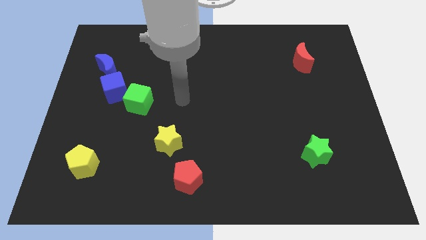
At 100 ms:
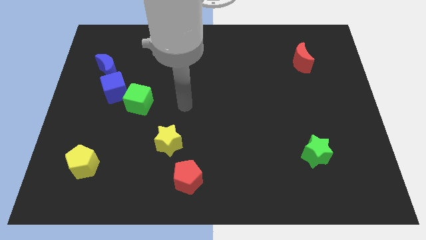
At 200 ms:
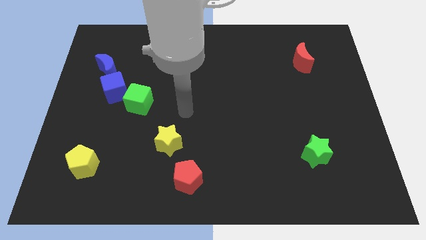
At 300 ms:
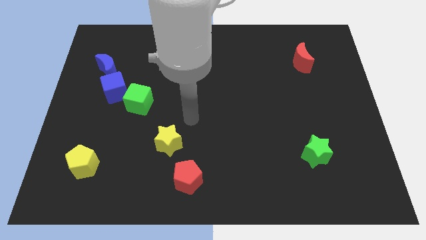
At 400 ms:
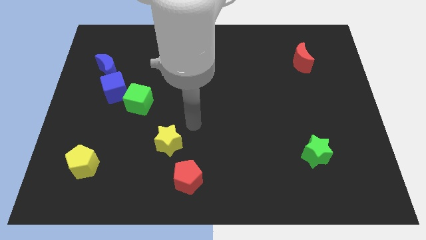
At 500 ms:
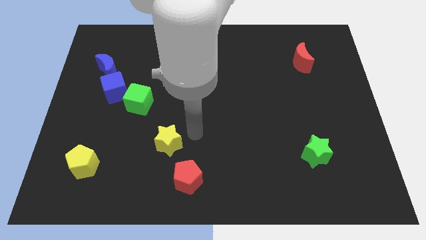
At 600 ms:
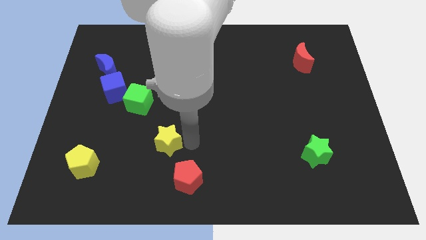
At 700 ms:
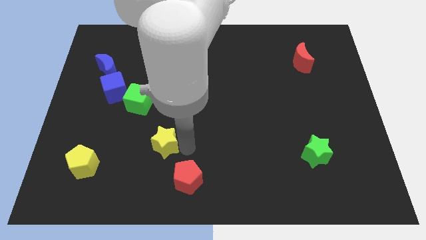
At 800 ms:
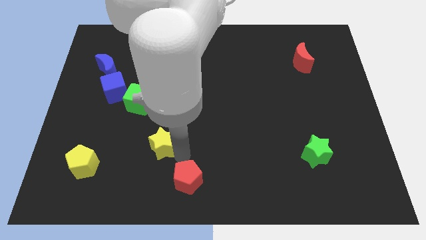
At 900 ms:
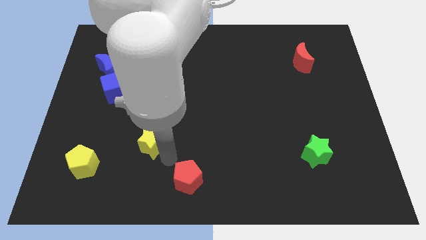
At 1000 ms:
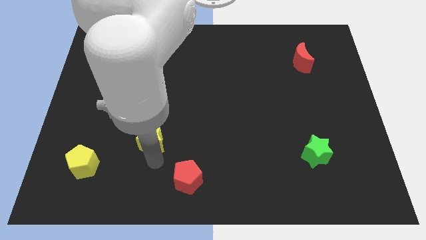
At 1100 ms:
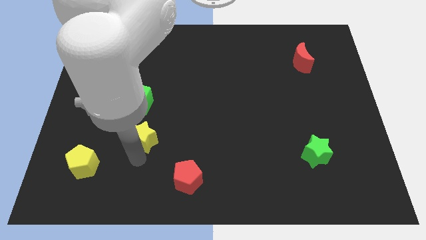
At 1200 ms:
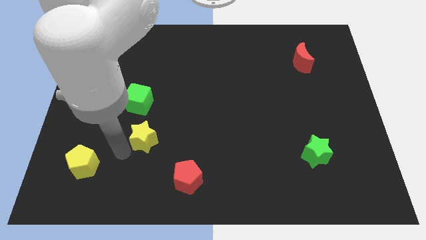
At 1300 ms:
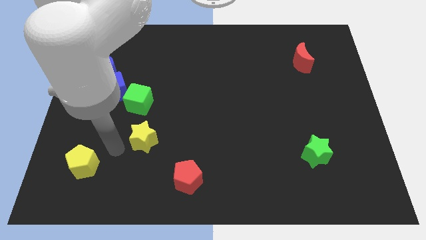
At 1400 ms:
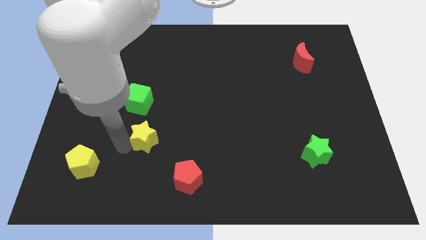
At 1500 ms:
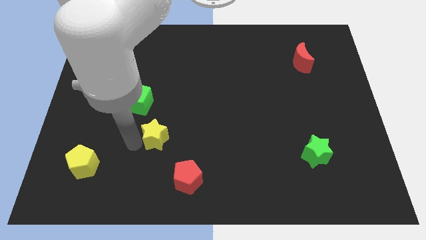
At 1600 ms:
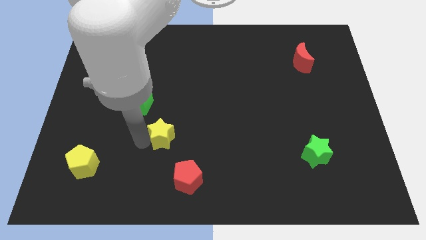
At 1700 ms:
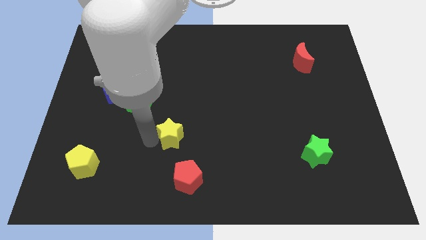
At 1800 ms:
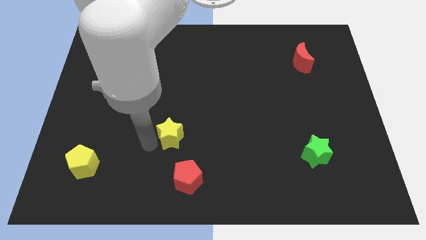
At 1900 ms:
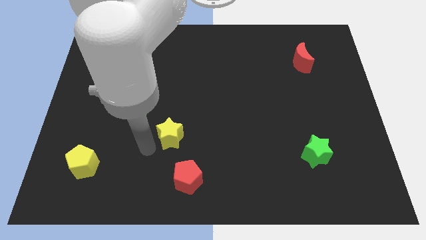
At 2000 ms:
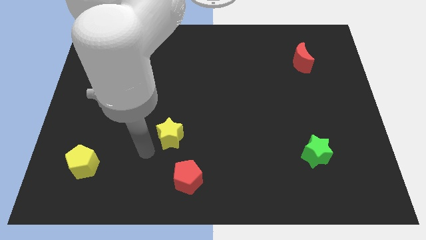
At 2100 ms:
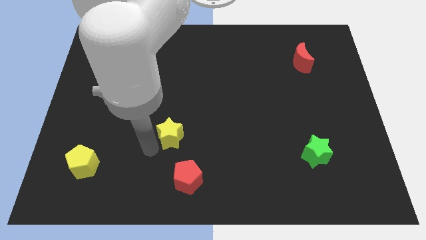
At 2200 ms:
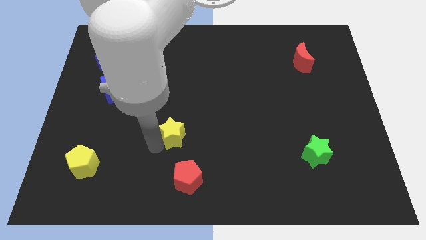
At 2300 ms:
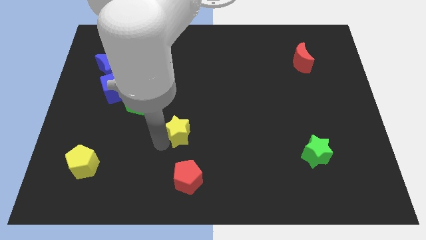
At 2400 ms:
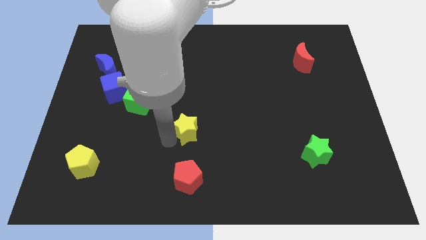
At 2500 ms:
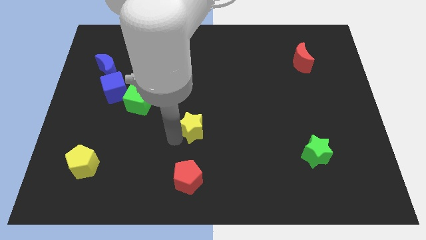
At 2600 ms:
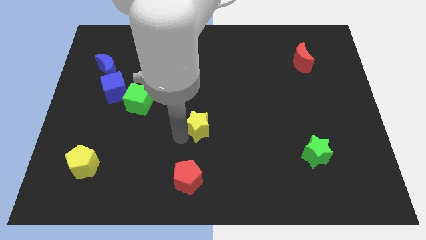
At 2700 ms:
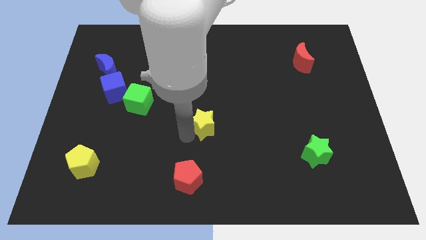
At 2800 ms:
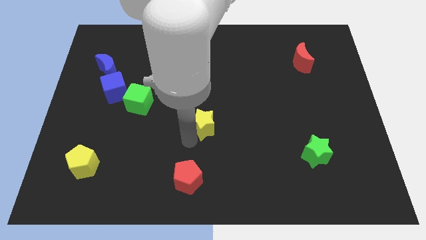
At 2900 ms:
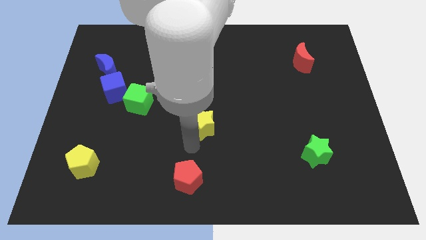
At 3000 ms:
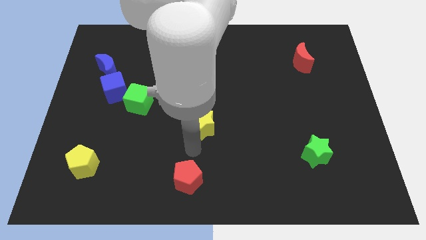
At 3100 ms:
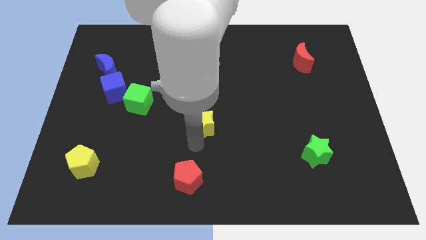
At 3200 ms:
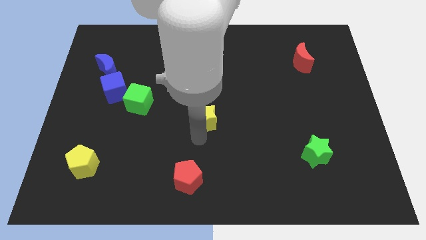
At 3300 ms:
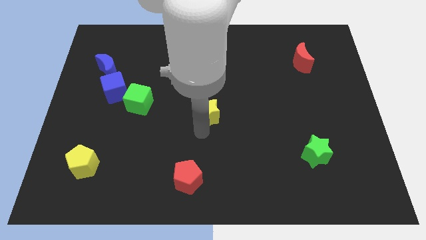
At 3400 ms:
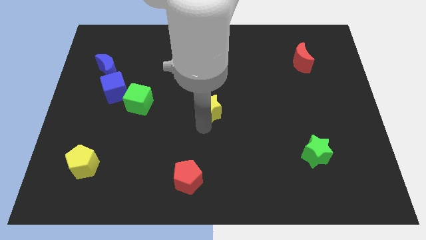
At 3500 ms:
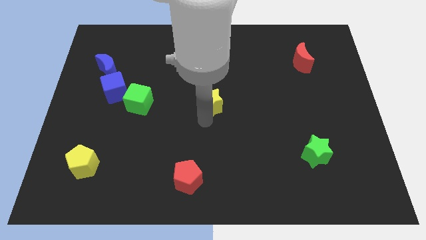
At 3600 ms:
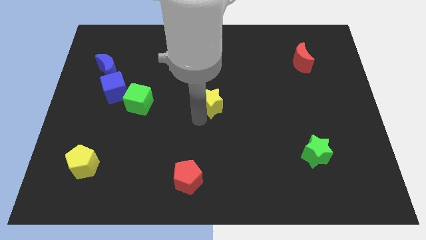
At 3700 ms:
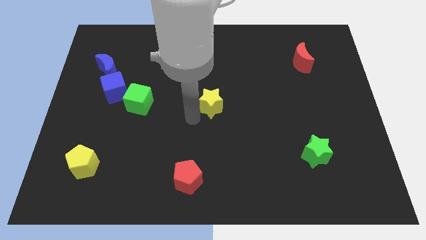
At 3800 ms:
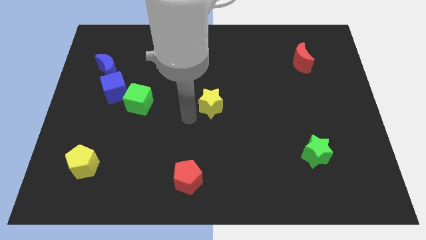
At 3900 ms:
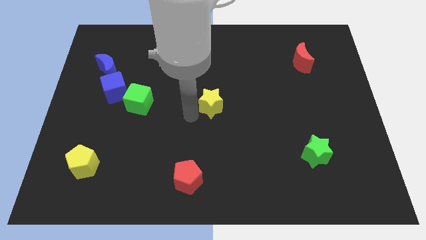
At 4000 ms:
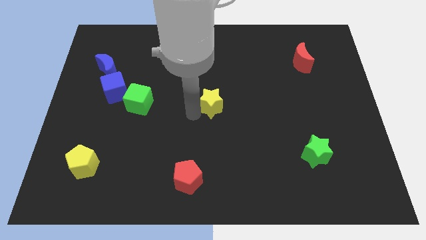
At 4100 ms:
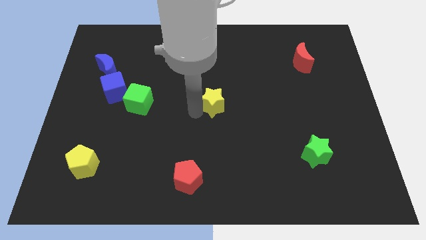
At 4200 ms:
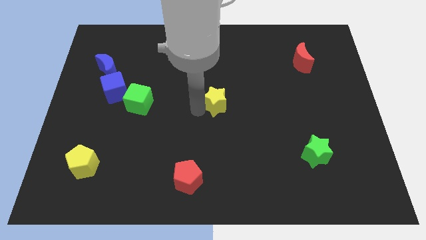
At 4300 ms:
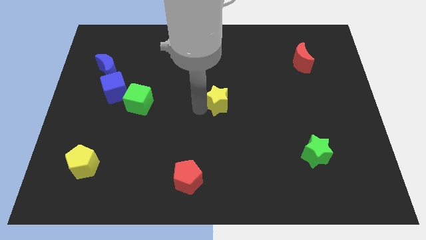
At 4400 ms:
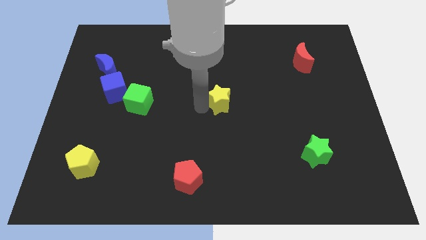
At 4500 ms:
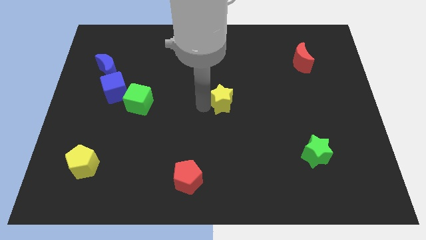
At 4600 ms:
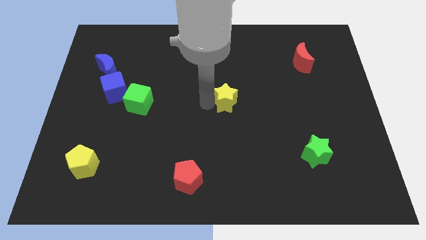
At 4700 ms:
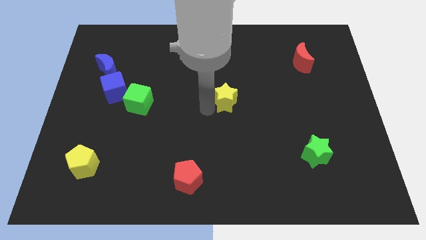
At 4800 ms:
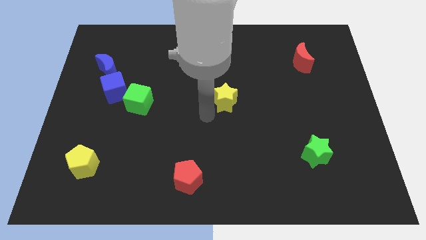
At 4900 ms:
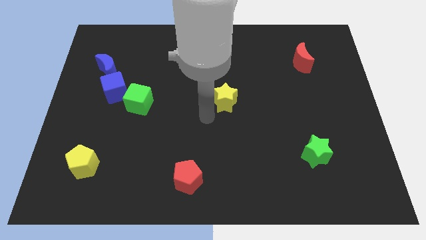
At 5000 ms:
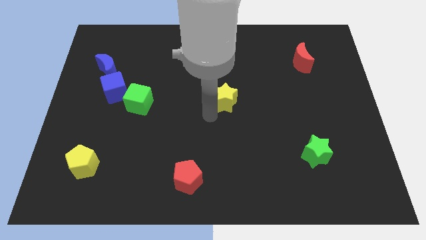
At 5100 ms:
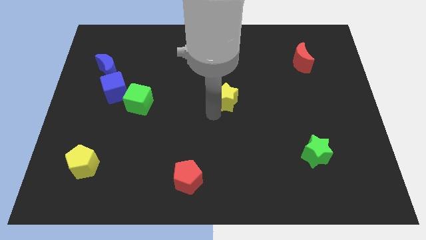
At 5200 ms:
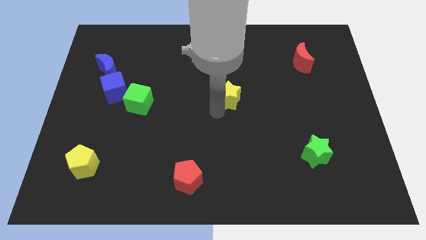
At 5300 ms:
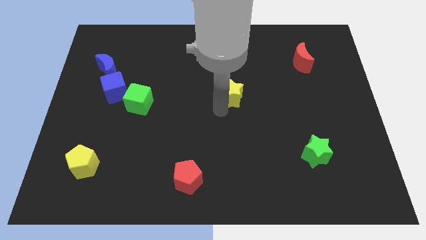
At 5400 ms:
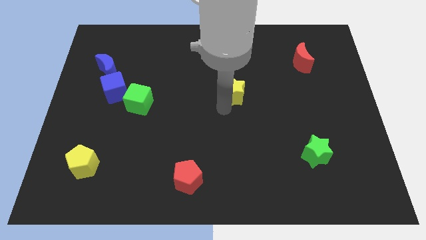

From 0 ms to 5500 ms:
slide the yellow star upwards and then to the right

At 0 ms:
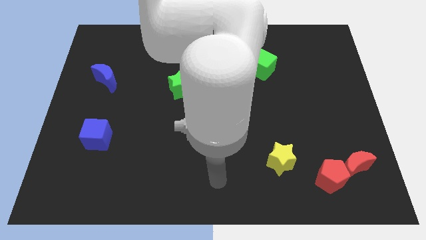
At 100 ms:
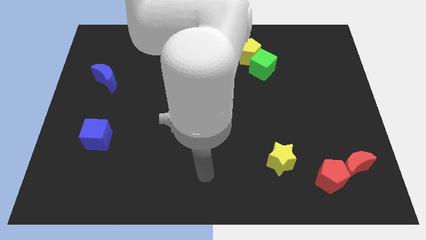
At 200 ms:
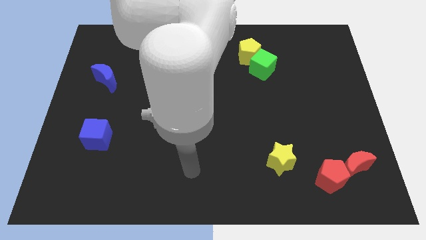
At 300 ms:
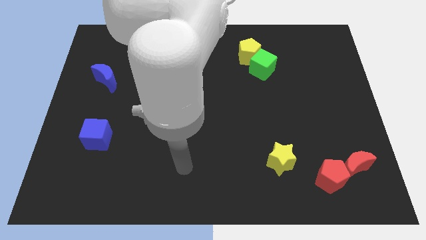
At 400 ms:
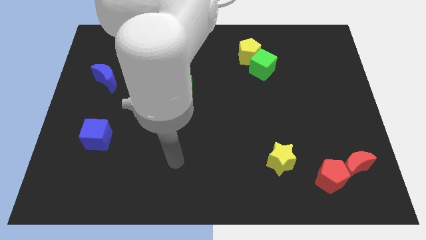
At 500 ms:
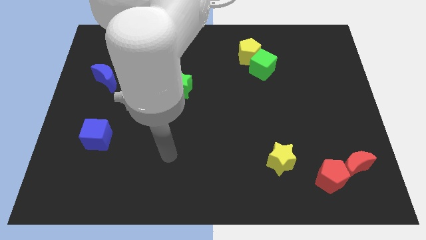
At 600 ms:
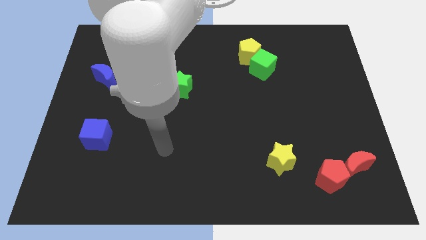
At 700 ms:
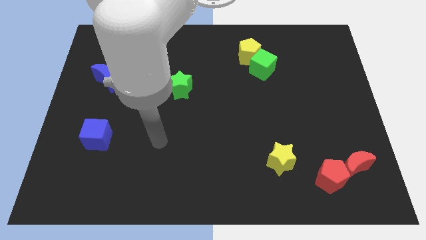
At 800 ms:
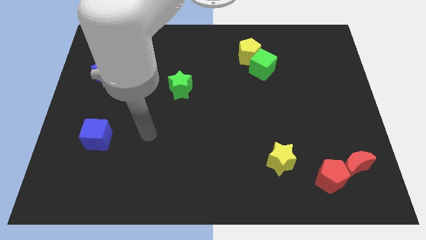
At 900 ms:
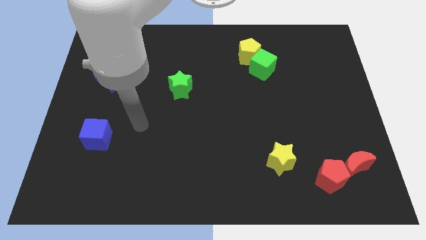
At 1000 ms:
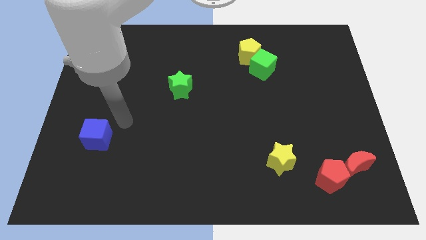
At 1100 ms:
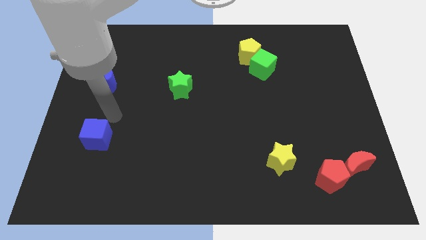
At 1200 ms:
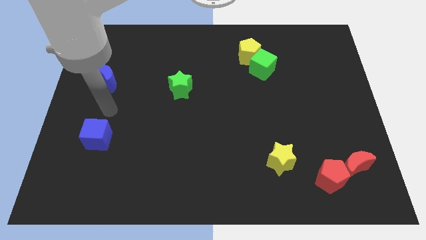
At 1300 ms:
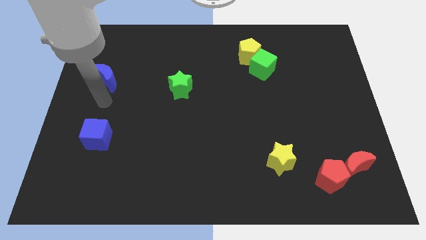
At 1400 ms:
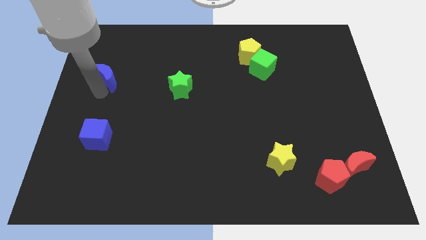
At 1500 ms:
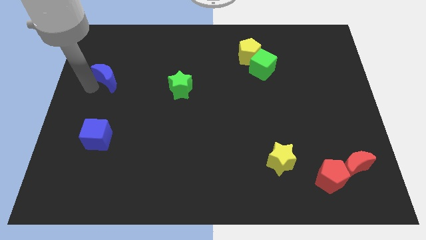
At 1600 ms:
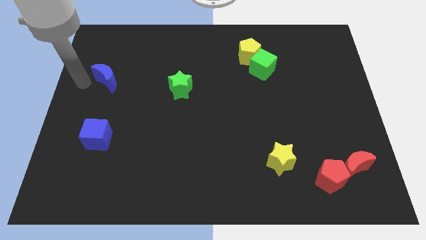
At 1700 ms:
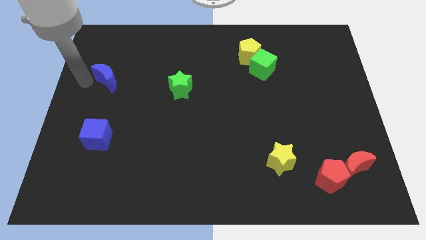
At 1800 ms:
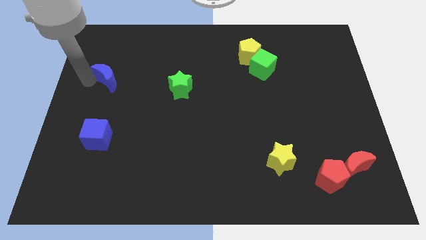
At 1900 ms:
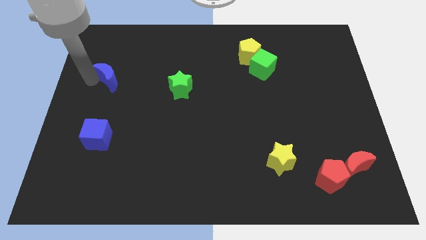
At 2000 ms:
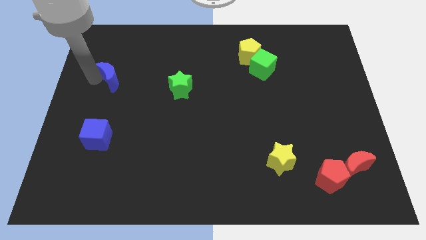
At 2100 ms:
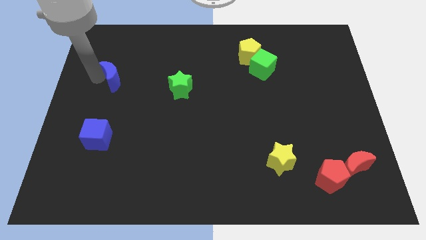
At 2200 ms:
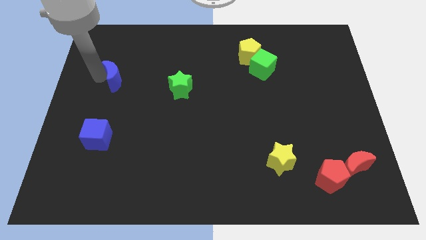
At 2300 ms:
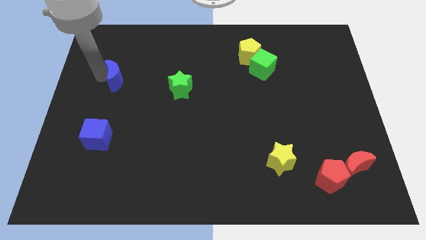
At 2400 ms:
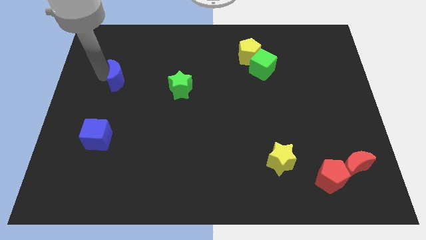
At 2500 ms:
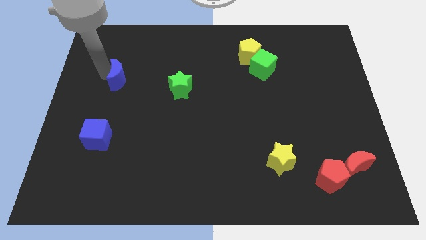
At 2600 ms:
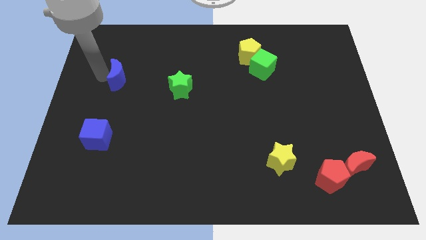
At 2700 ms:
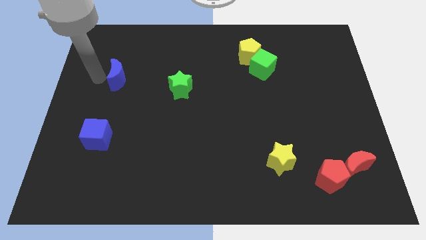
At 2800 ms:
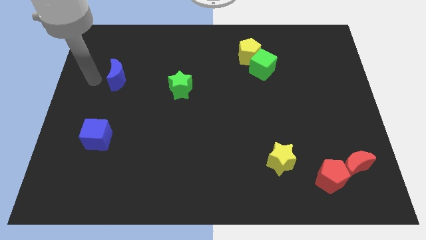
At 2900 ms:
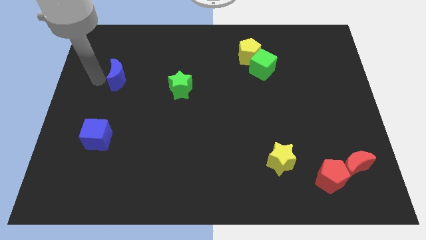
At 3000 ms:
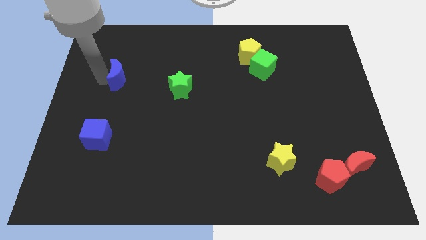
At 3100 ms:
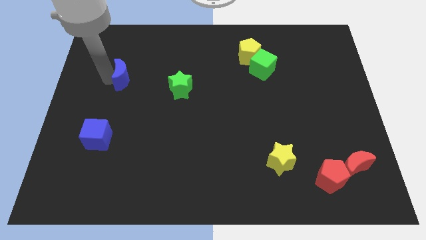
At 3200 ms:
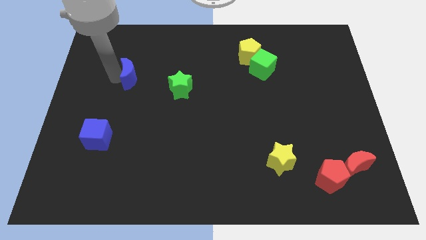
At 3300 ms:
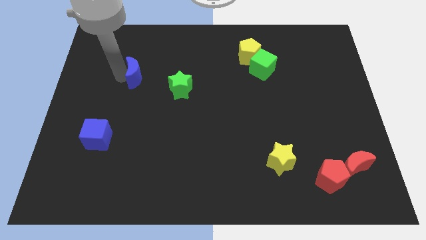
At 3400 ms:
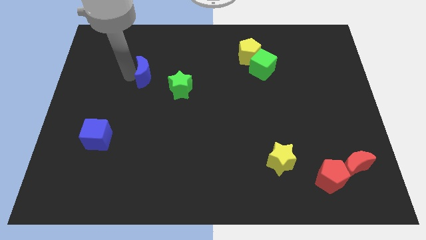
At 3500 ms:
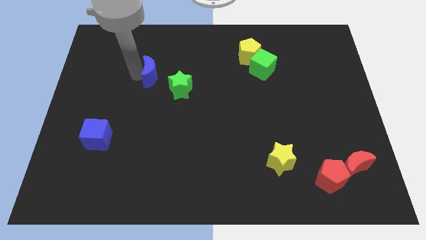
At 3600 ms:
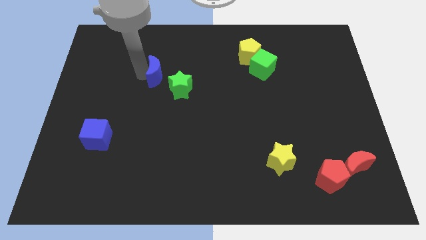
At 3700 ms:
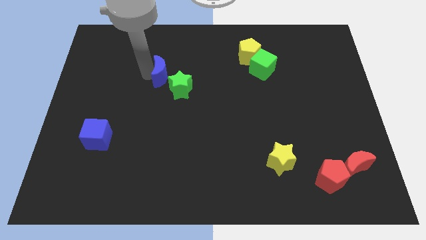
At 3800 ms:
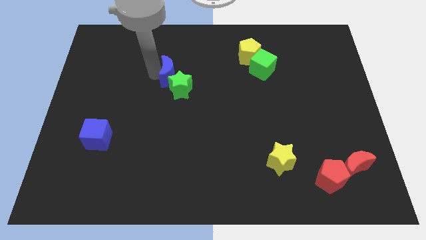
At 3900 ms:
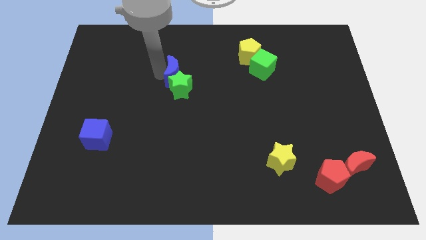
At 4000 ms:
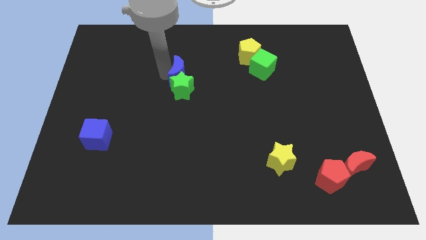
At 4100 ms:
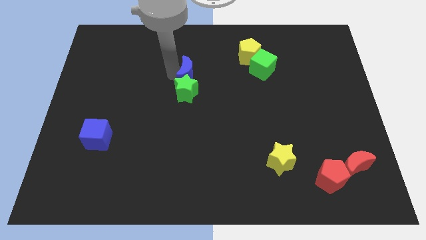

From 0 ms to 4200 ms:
slide the blue moon to the right
